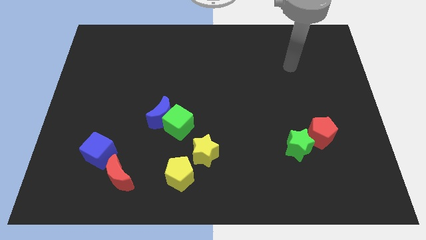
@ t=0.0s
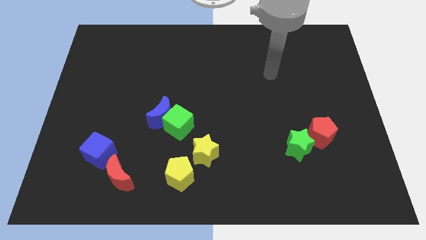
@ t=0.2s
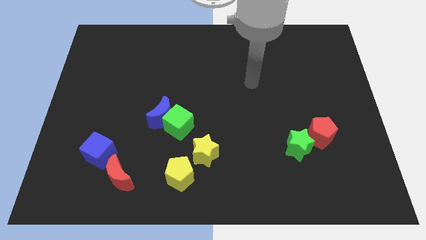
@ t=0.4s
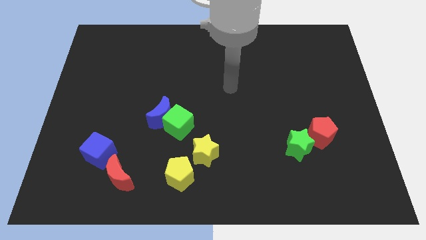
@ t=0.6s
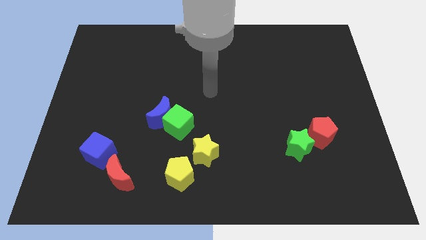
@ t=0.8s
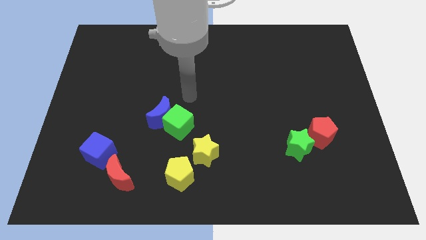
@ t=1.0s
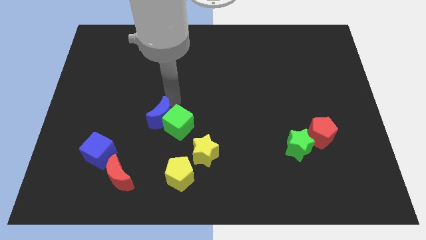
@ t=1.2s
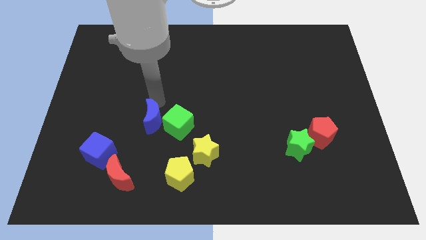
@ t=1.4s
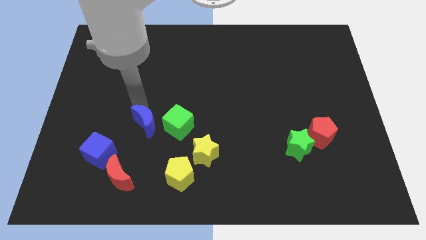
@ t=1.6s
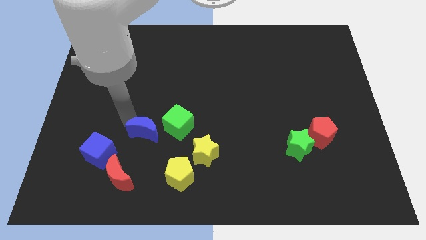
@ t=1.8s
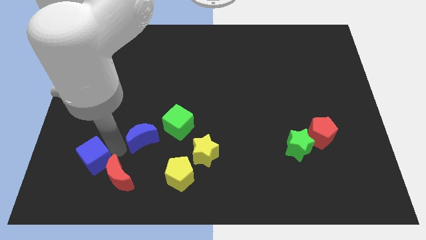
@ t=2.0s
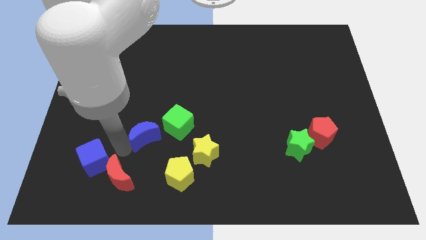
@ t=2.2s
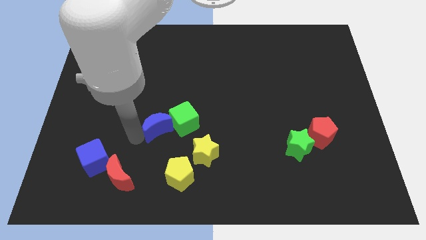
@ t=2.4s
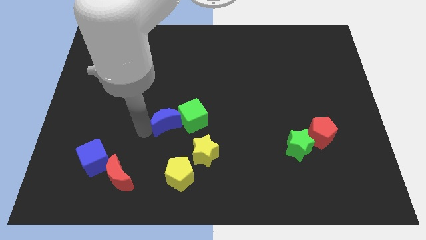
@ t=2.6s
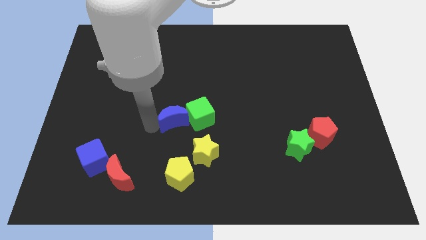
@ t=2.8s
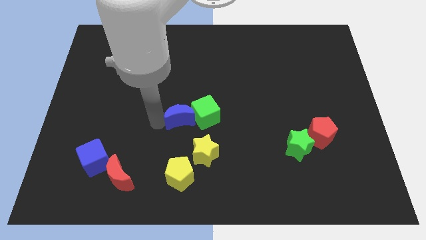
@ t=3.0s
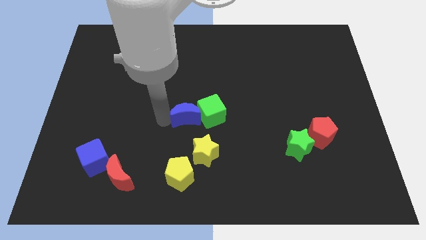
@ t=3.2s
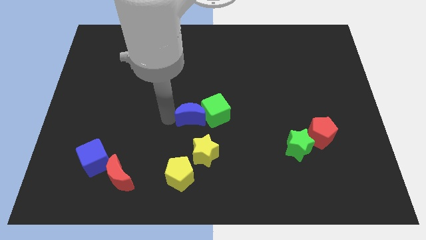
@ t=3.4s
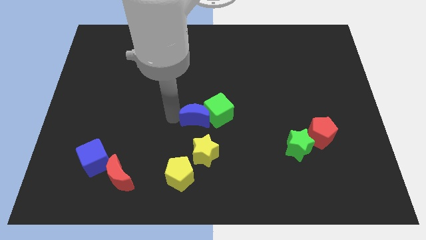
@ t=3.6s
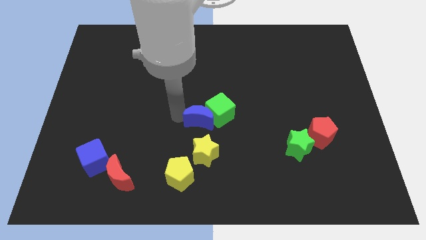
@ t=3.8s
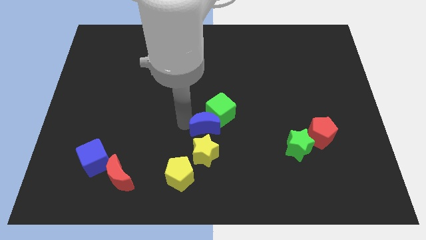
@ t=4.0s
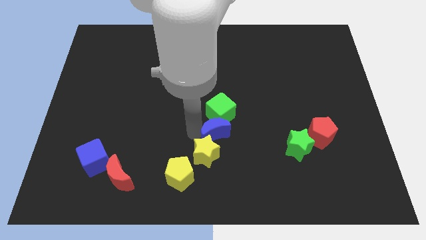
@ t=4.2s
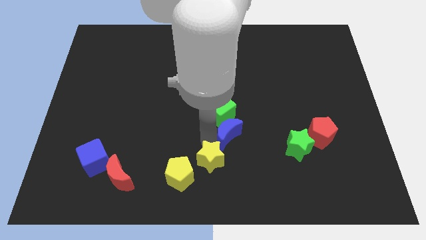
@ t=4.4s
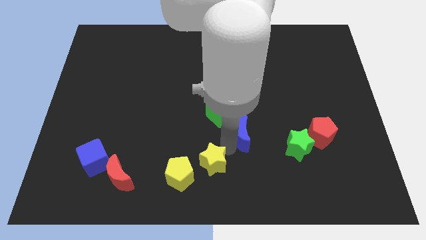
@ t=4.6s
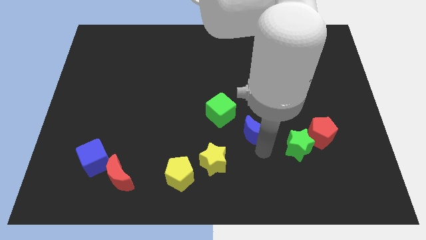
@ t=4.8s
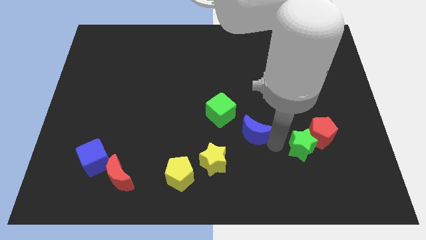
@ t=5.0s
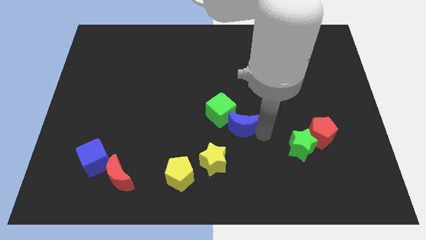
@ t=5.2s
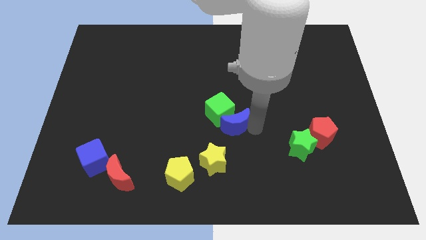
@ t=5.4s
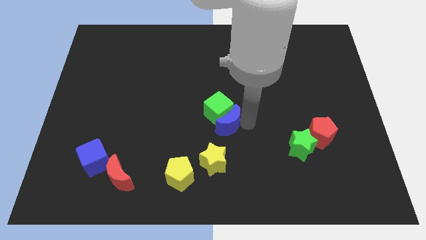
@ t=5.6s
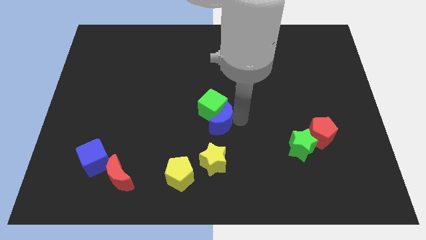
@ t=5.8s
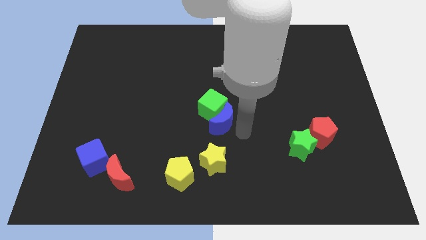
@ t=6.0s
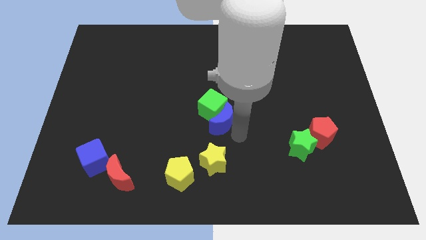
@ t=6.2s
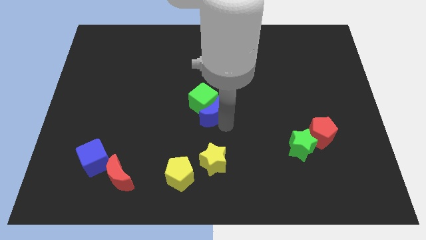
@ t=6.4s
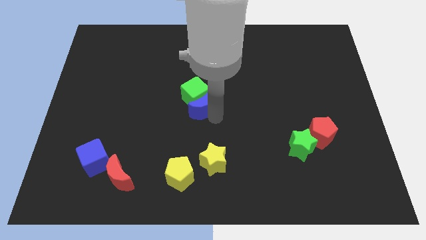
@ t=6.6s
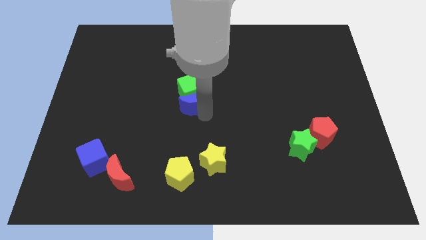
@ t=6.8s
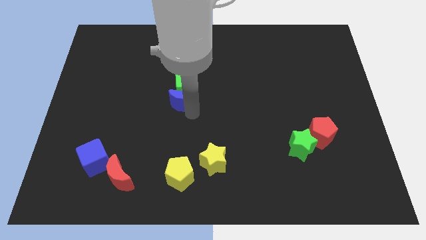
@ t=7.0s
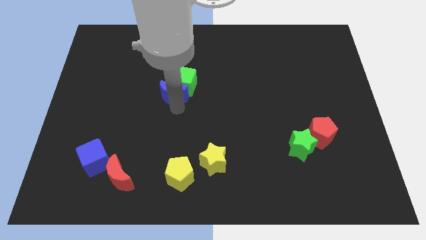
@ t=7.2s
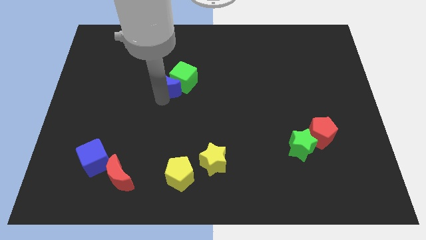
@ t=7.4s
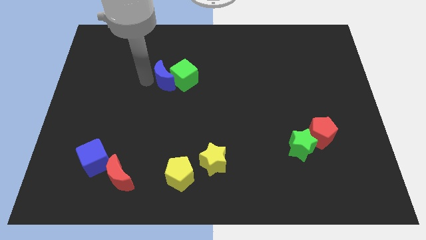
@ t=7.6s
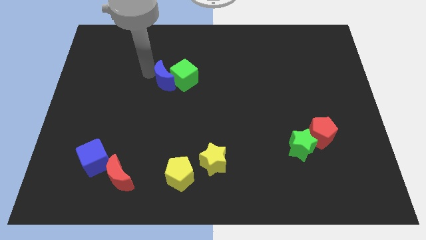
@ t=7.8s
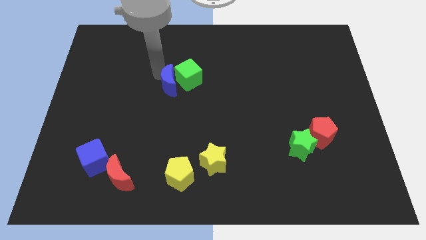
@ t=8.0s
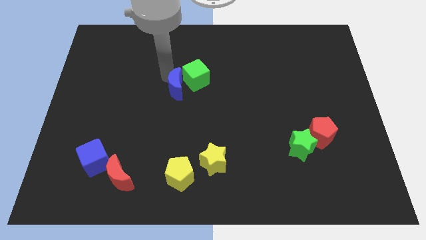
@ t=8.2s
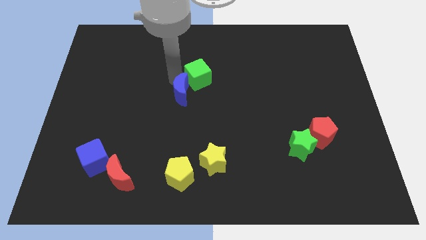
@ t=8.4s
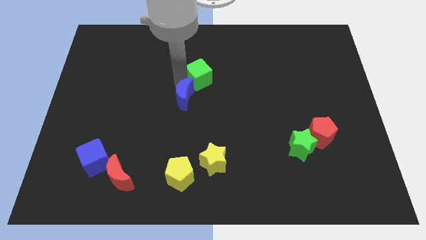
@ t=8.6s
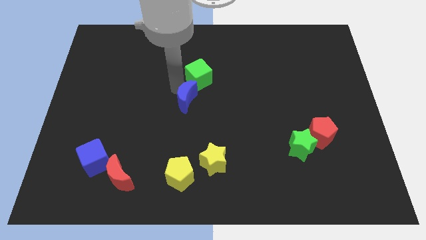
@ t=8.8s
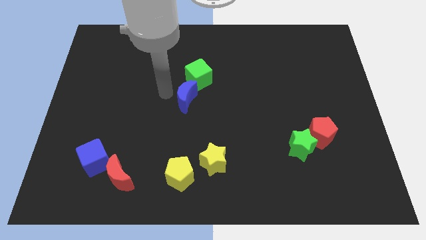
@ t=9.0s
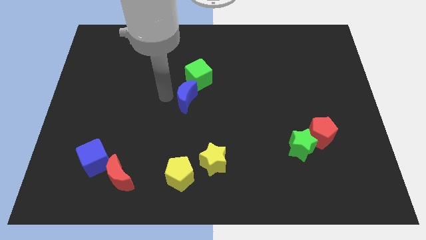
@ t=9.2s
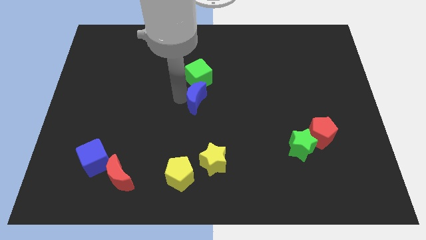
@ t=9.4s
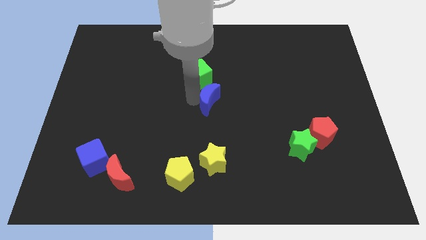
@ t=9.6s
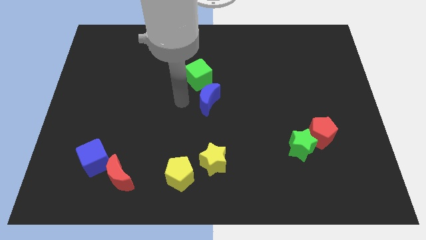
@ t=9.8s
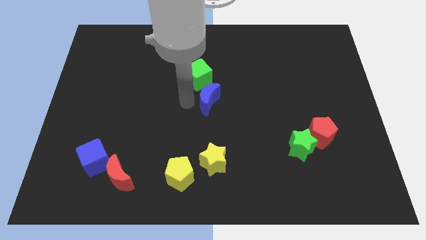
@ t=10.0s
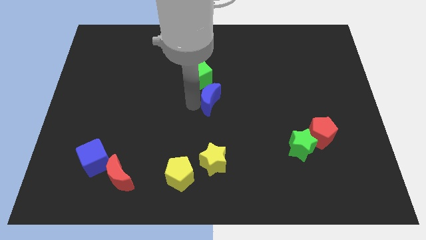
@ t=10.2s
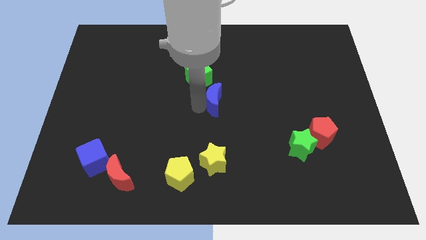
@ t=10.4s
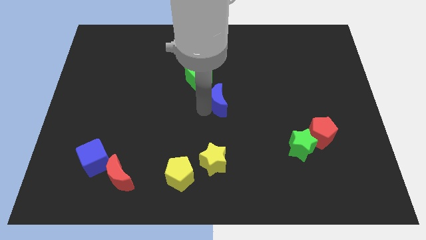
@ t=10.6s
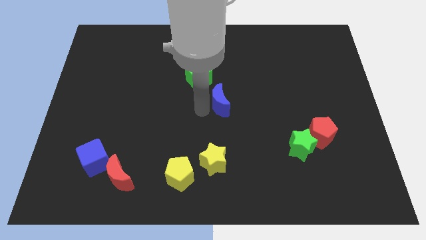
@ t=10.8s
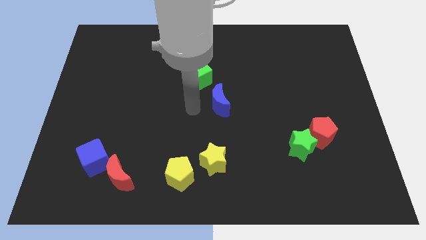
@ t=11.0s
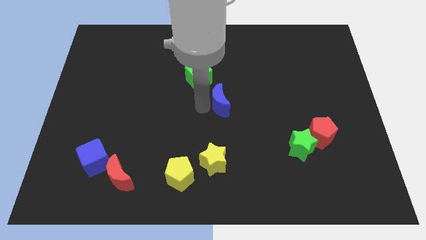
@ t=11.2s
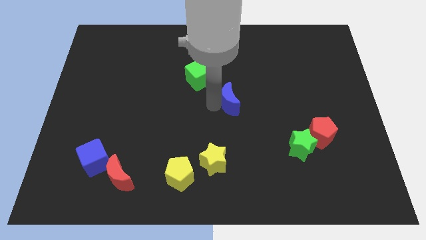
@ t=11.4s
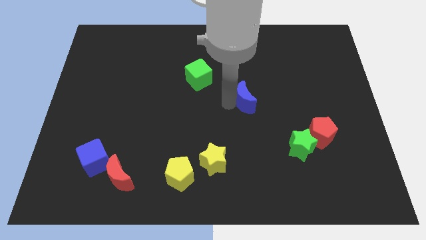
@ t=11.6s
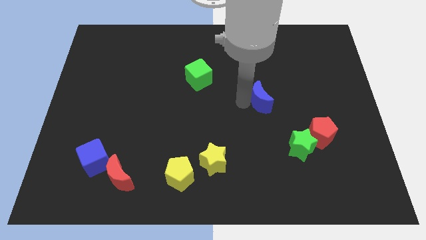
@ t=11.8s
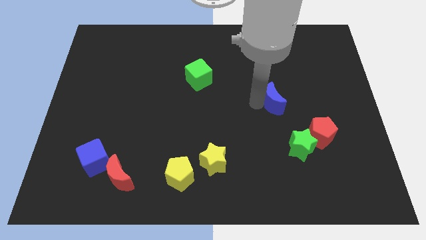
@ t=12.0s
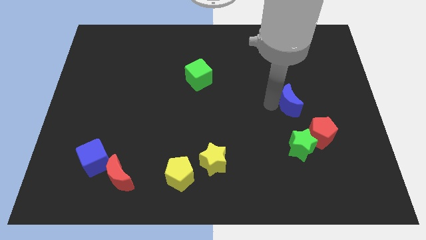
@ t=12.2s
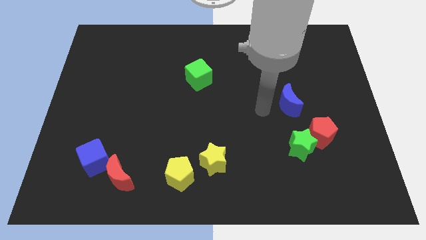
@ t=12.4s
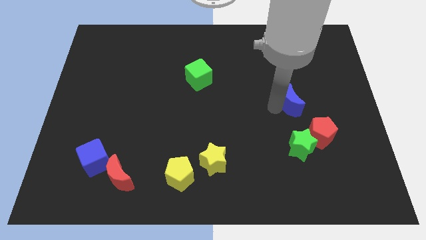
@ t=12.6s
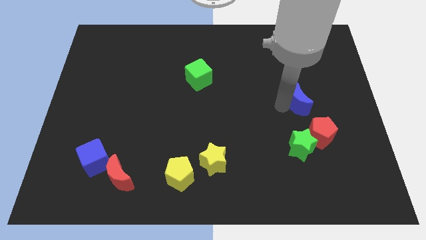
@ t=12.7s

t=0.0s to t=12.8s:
put the blue moon above the red pentagon

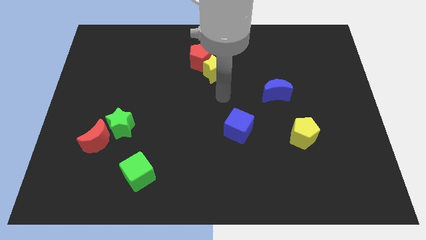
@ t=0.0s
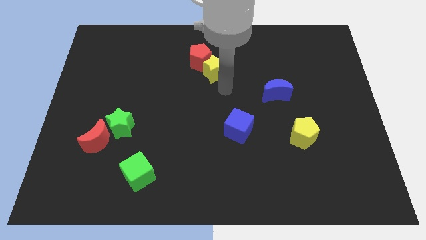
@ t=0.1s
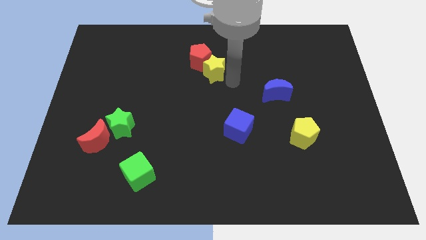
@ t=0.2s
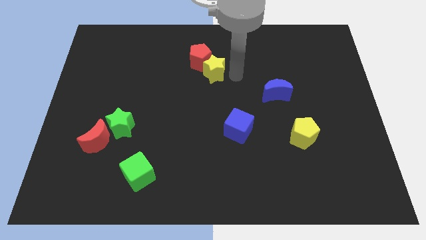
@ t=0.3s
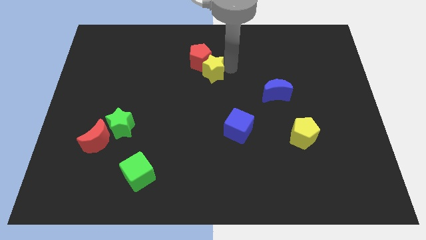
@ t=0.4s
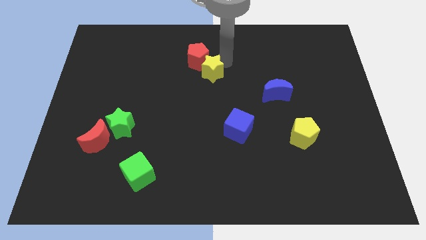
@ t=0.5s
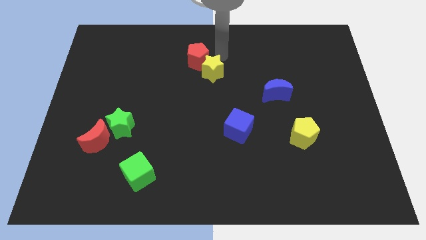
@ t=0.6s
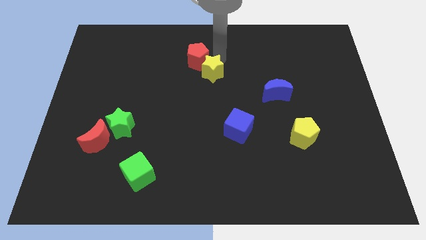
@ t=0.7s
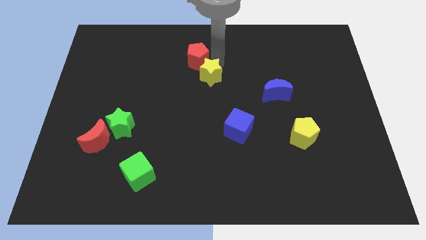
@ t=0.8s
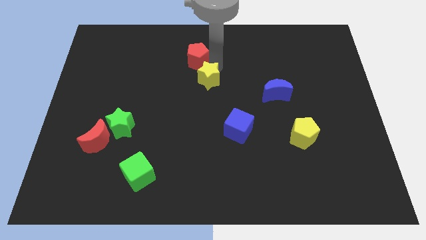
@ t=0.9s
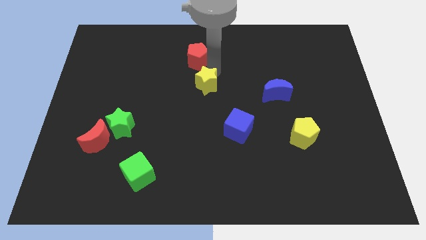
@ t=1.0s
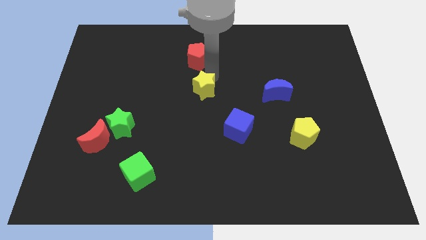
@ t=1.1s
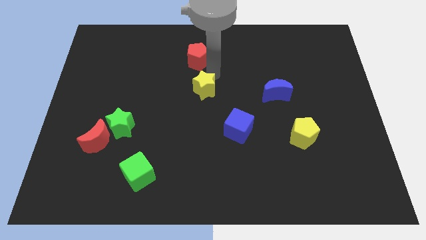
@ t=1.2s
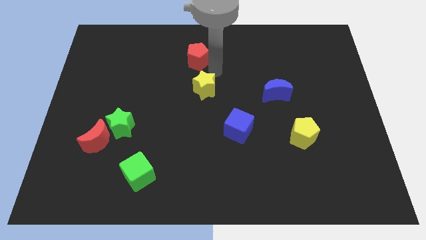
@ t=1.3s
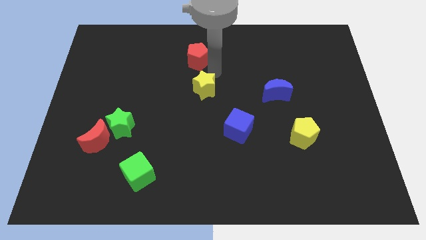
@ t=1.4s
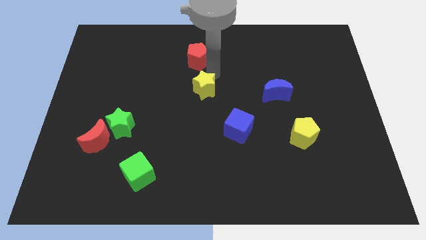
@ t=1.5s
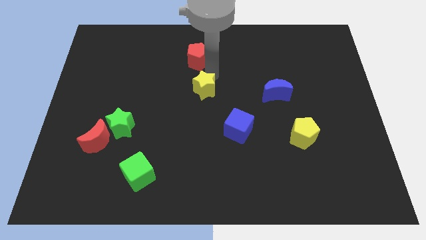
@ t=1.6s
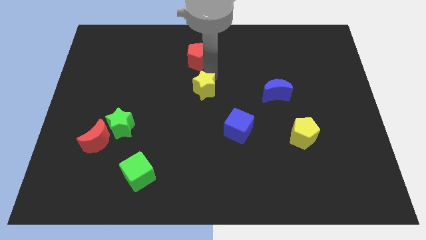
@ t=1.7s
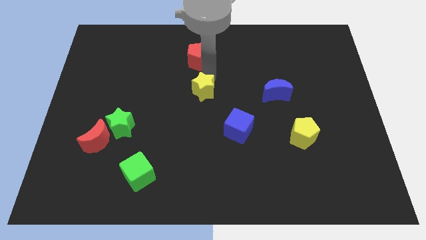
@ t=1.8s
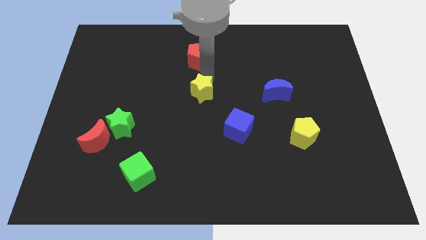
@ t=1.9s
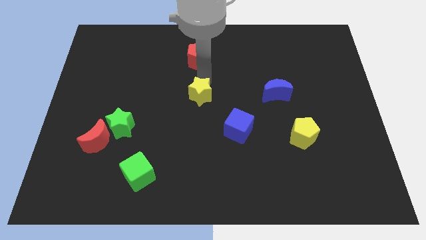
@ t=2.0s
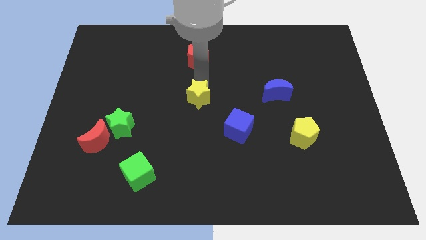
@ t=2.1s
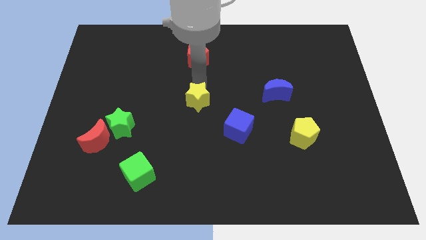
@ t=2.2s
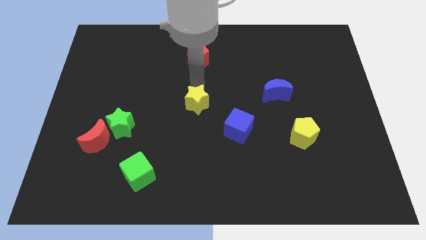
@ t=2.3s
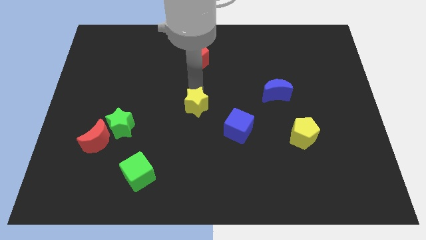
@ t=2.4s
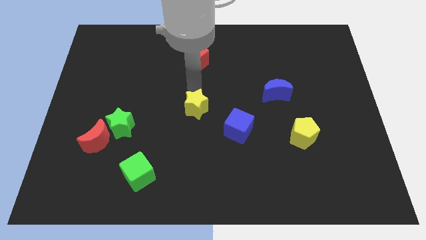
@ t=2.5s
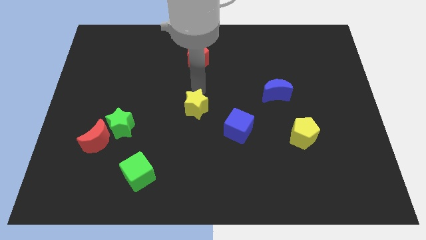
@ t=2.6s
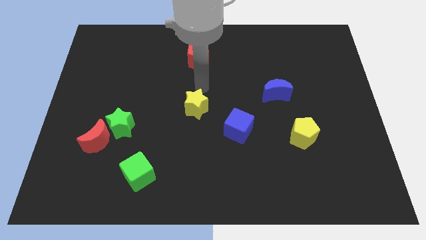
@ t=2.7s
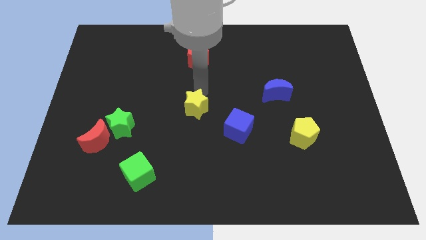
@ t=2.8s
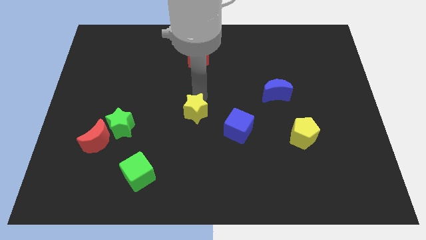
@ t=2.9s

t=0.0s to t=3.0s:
slide the yellow star just left of the blue cube
